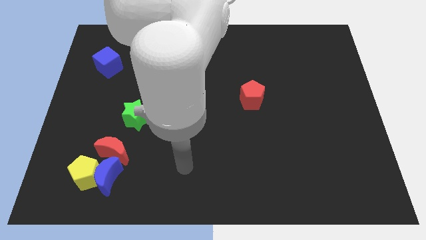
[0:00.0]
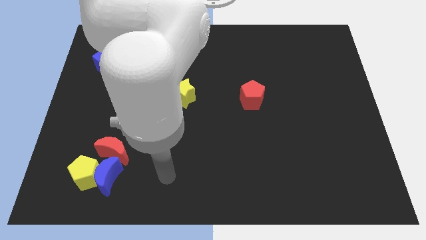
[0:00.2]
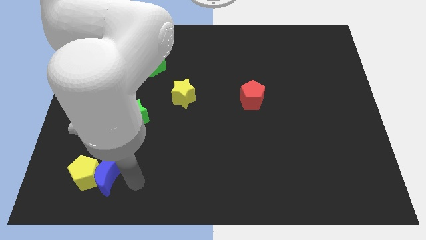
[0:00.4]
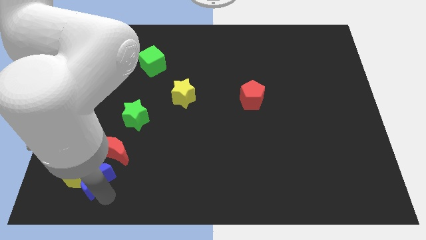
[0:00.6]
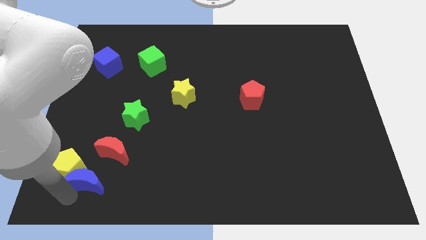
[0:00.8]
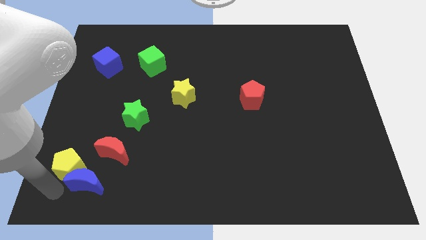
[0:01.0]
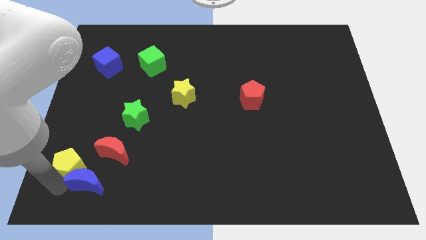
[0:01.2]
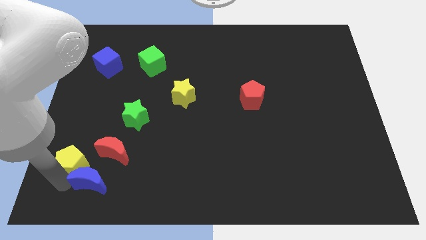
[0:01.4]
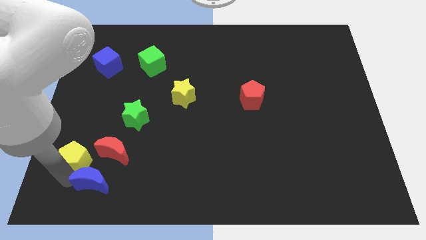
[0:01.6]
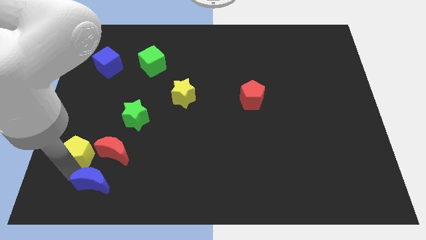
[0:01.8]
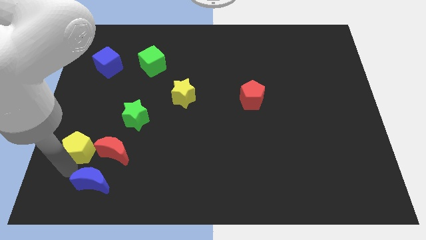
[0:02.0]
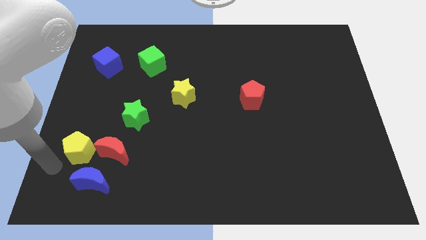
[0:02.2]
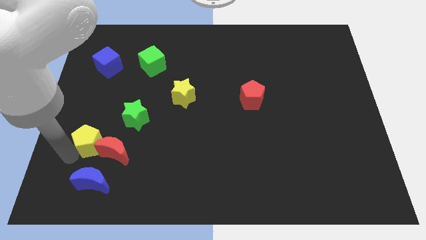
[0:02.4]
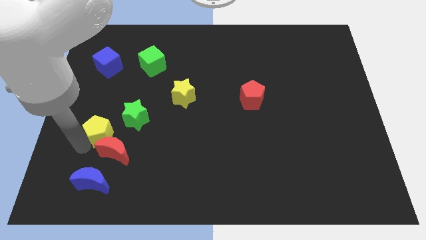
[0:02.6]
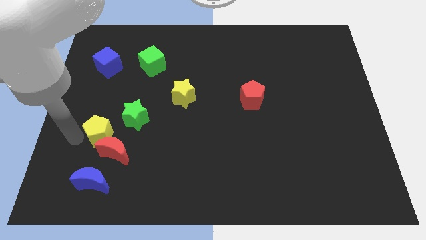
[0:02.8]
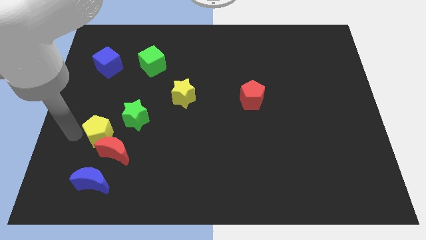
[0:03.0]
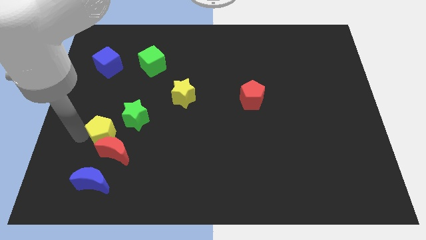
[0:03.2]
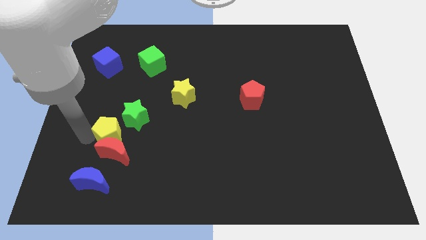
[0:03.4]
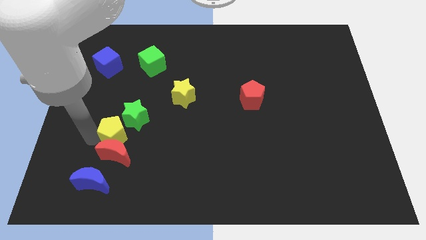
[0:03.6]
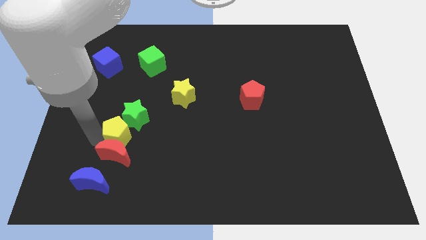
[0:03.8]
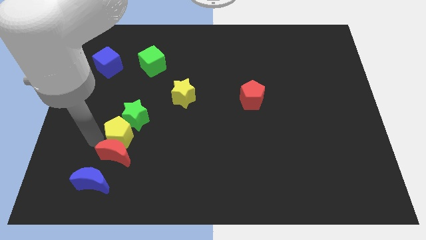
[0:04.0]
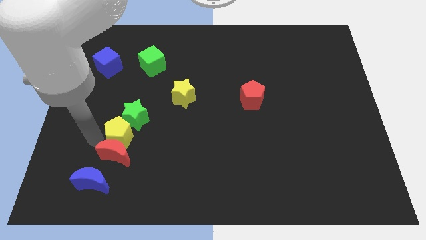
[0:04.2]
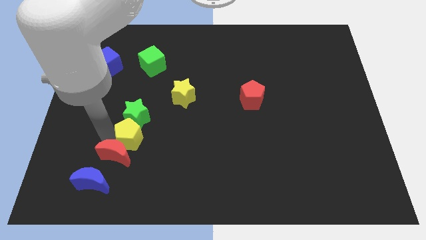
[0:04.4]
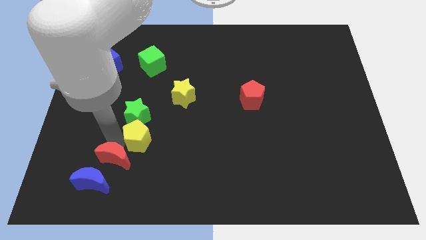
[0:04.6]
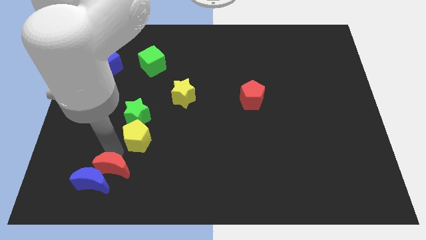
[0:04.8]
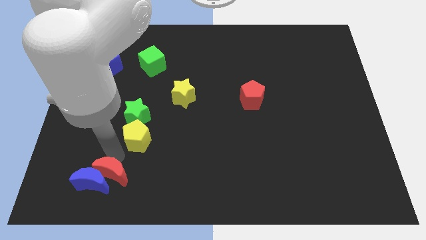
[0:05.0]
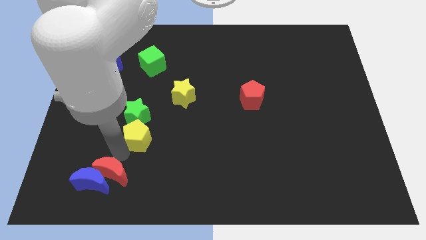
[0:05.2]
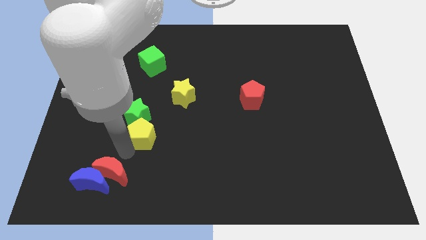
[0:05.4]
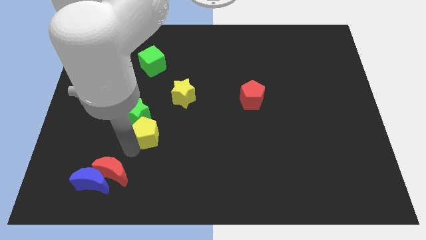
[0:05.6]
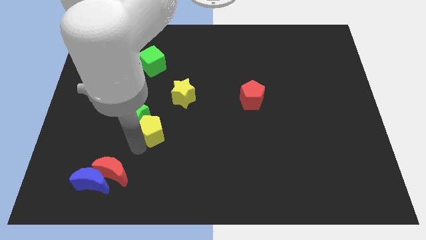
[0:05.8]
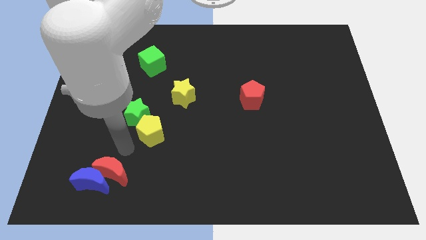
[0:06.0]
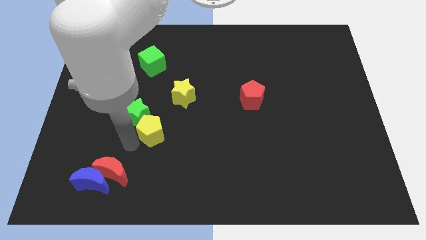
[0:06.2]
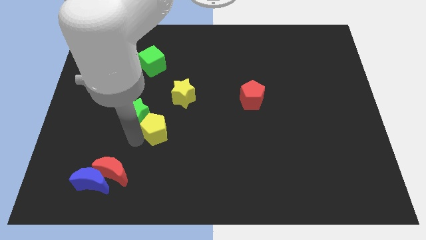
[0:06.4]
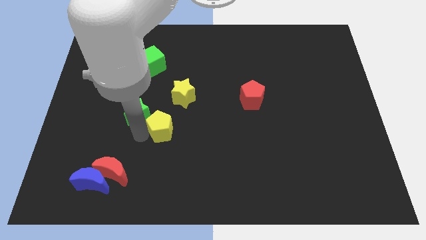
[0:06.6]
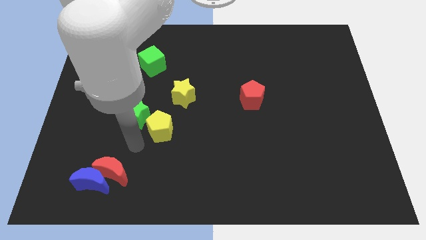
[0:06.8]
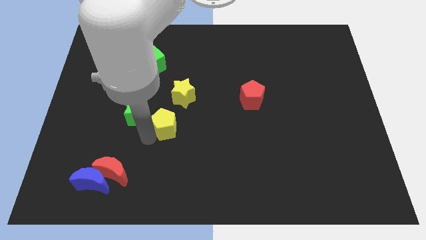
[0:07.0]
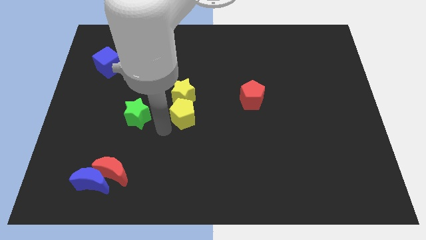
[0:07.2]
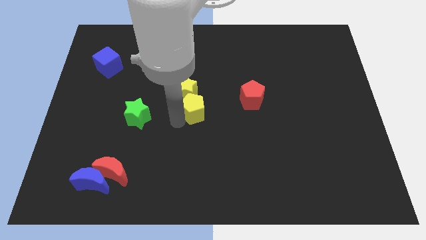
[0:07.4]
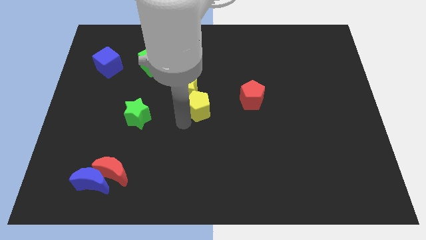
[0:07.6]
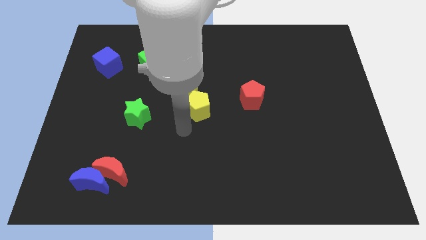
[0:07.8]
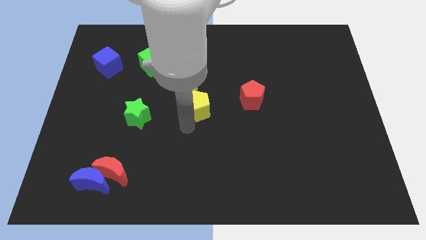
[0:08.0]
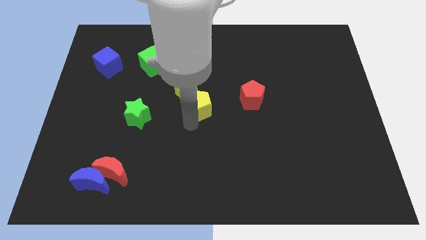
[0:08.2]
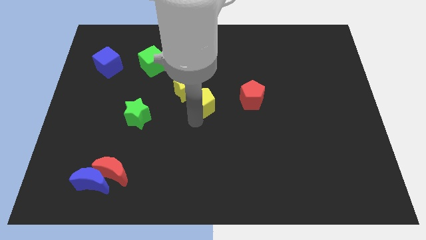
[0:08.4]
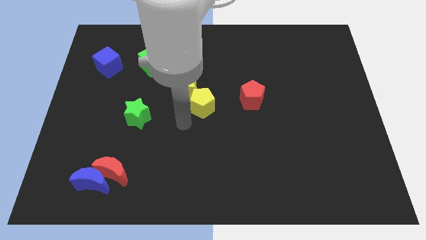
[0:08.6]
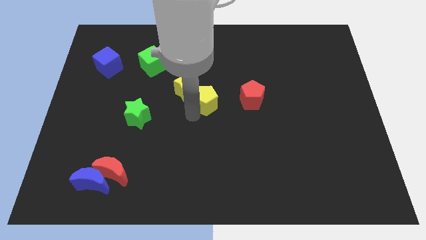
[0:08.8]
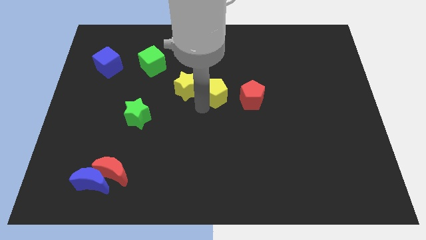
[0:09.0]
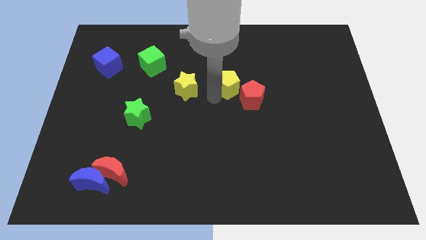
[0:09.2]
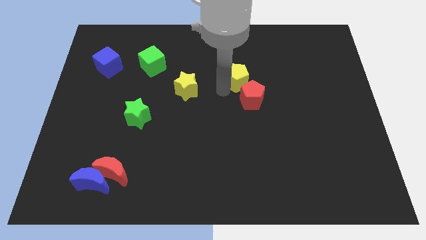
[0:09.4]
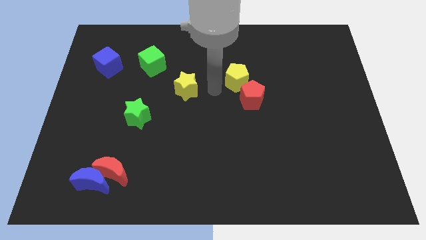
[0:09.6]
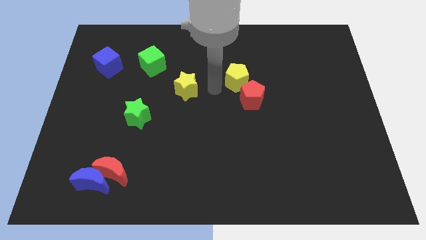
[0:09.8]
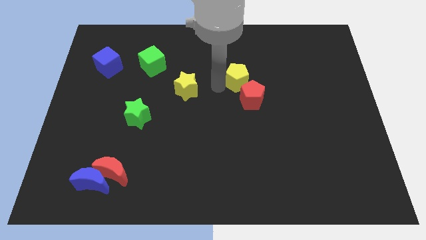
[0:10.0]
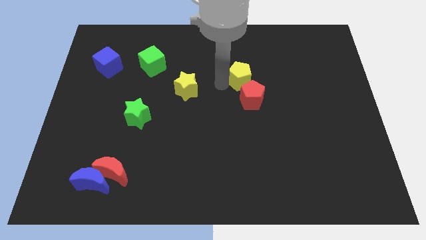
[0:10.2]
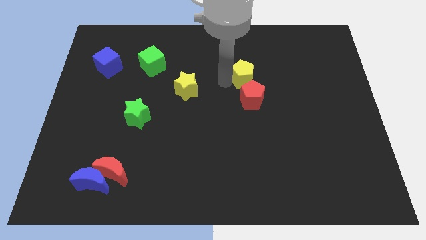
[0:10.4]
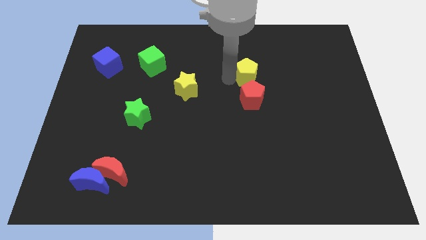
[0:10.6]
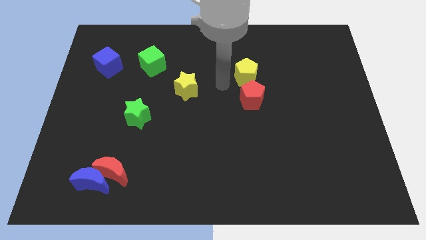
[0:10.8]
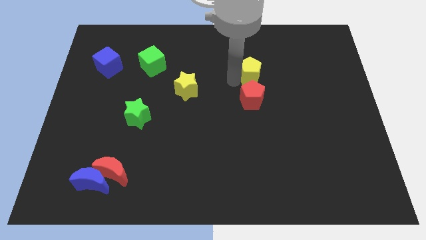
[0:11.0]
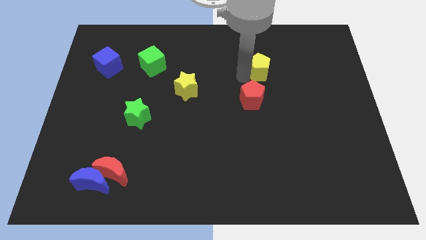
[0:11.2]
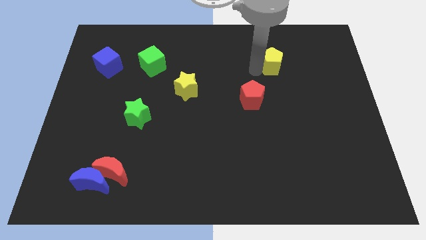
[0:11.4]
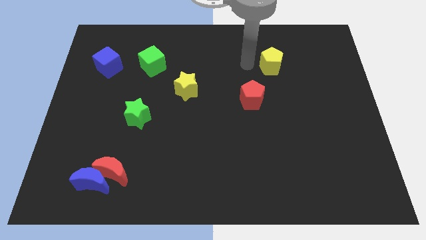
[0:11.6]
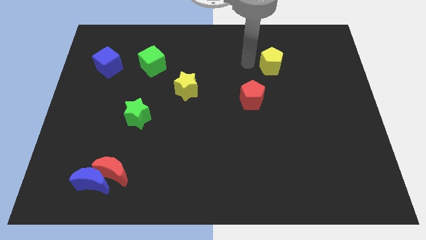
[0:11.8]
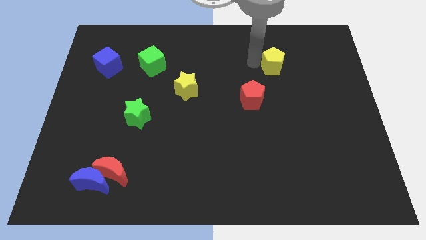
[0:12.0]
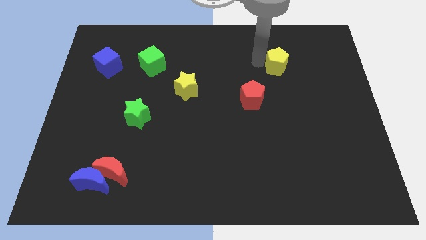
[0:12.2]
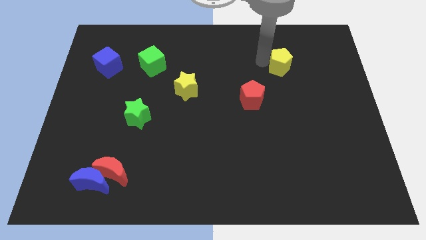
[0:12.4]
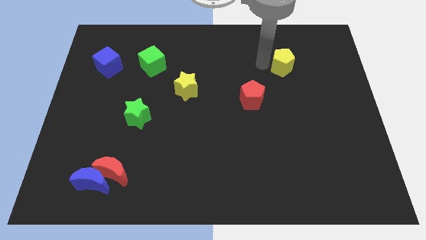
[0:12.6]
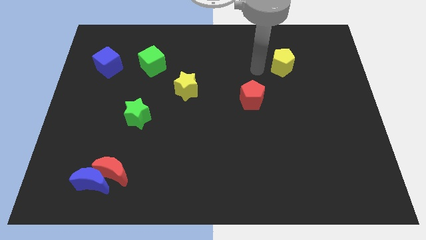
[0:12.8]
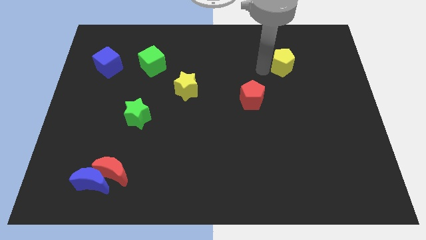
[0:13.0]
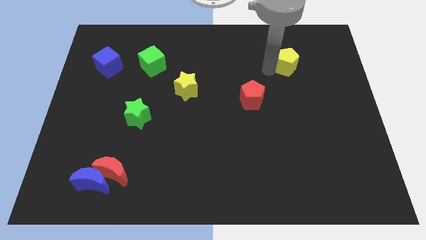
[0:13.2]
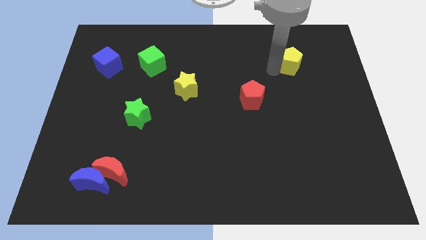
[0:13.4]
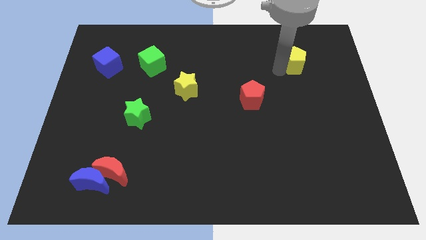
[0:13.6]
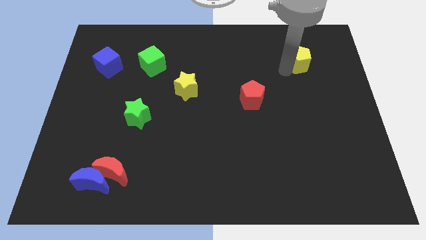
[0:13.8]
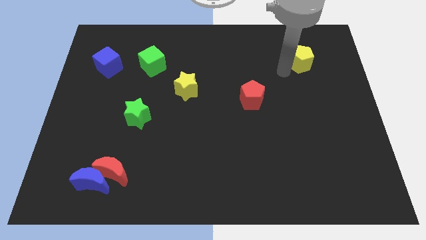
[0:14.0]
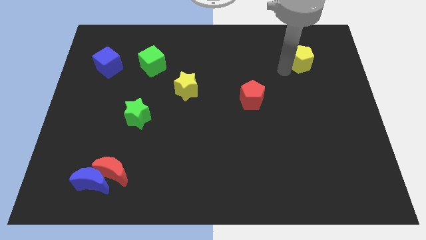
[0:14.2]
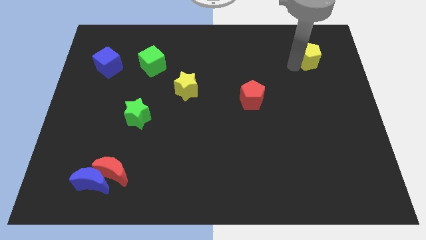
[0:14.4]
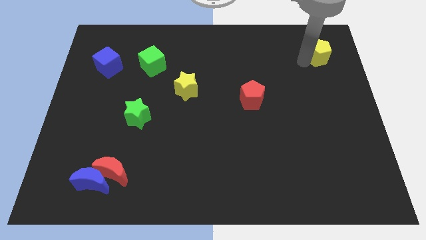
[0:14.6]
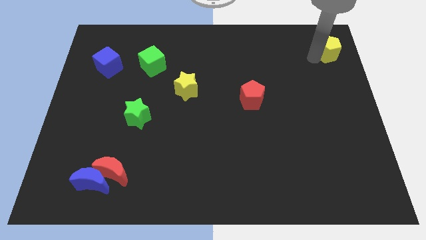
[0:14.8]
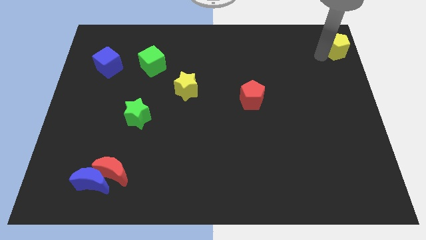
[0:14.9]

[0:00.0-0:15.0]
put the yellow pentagon to the top right corner
